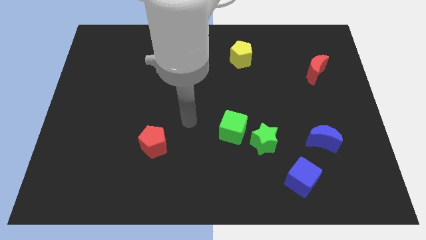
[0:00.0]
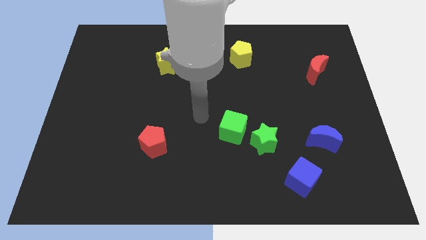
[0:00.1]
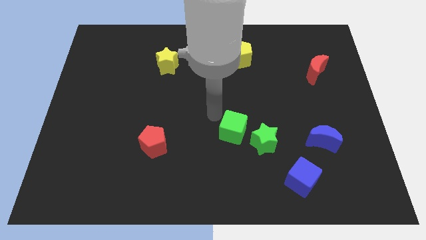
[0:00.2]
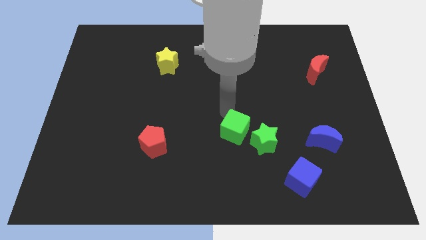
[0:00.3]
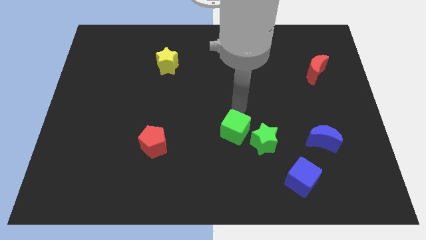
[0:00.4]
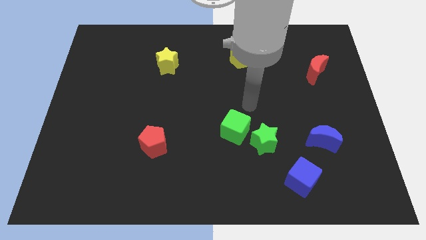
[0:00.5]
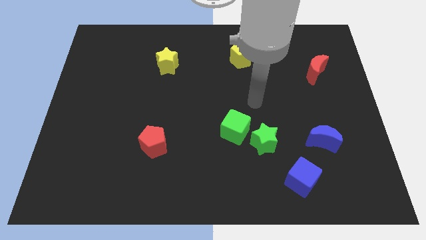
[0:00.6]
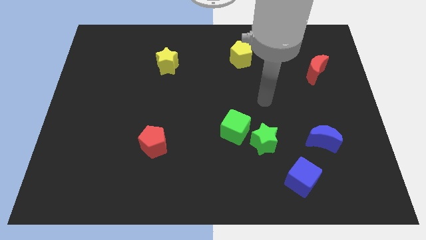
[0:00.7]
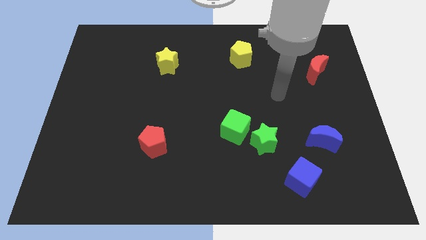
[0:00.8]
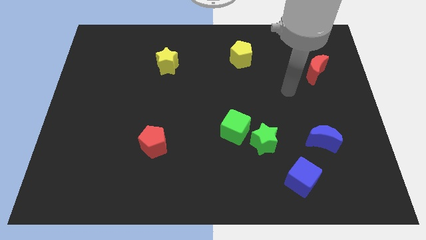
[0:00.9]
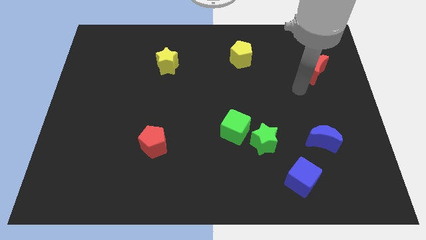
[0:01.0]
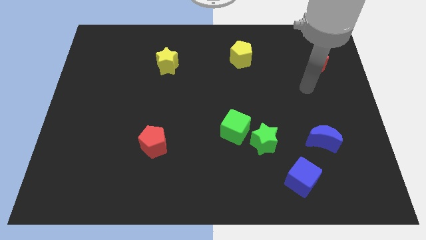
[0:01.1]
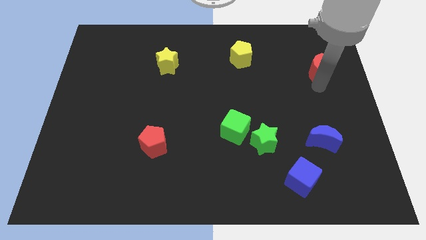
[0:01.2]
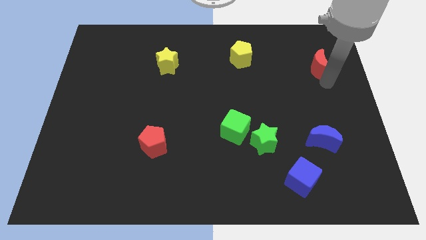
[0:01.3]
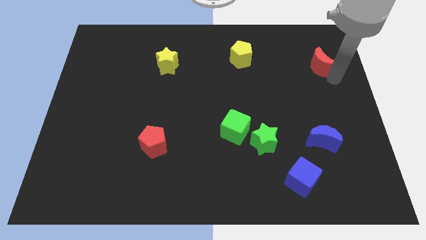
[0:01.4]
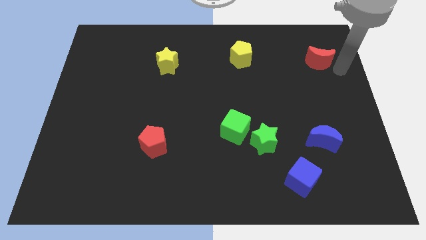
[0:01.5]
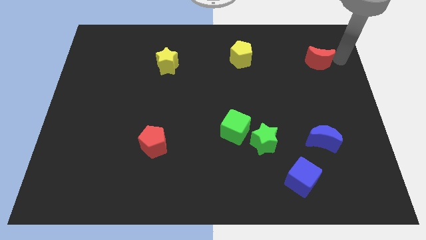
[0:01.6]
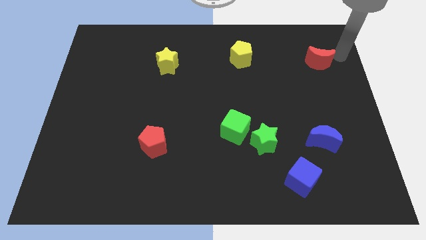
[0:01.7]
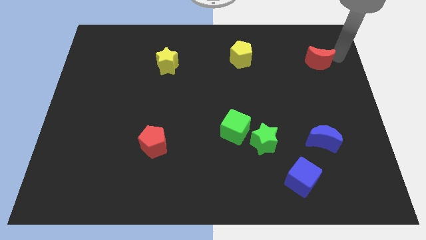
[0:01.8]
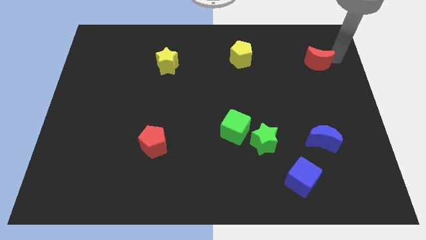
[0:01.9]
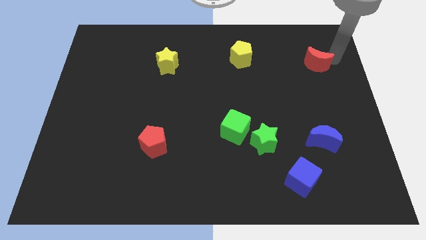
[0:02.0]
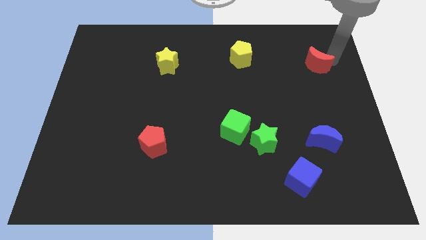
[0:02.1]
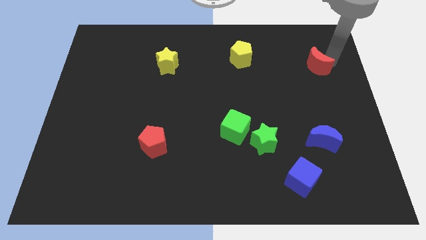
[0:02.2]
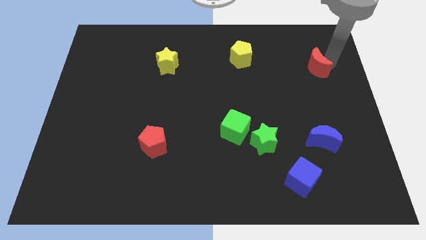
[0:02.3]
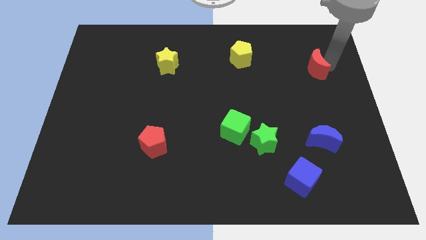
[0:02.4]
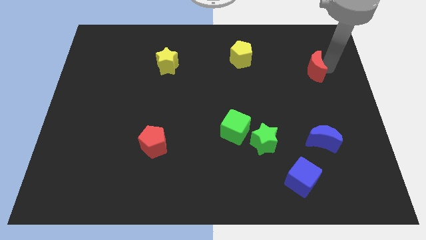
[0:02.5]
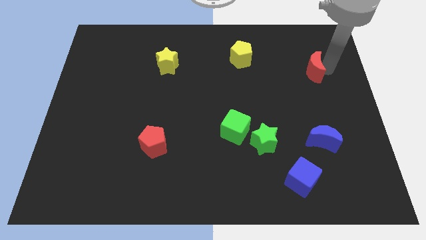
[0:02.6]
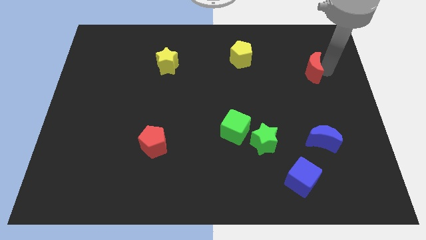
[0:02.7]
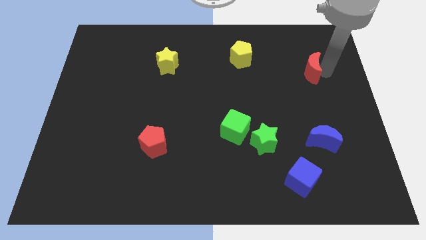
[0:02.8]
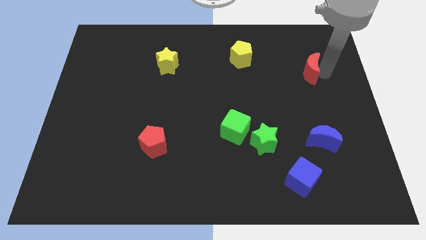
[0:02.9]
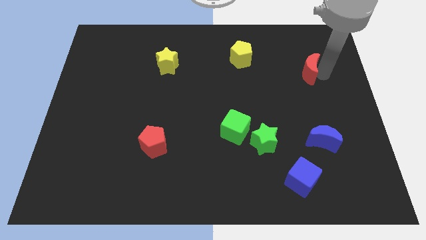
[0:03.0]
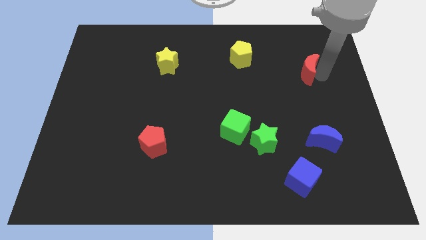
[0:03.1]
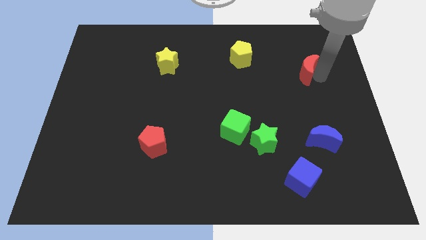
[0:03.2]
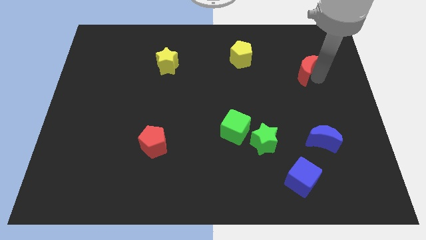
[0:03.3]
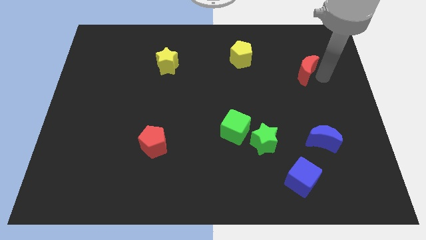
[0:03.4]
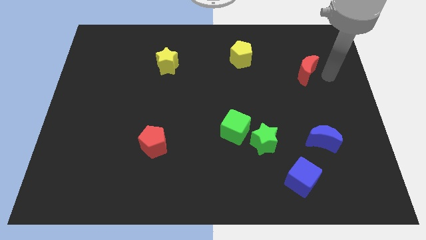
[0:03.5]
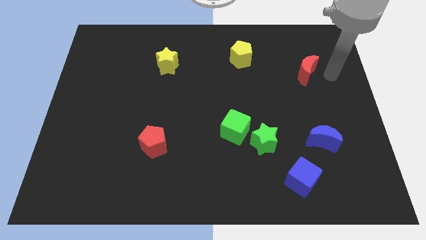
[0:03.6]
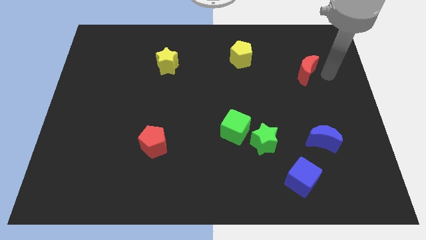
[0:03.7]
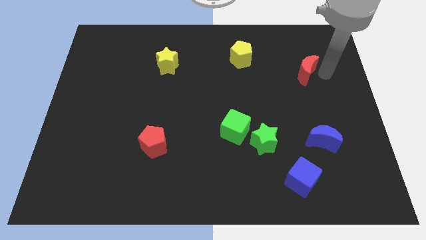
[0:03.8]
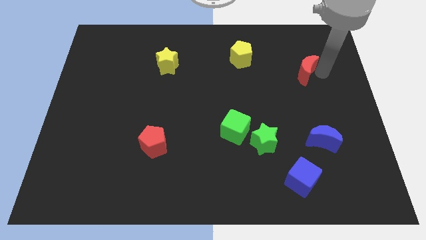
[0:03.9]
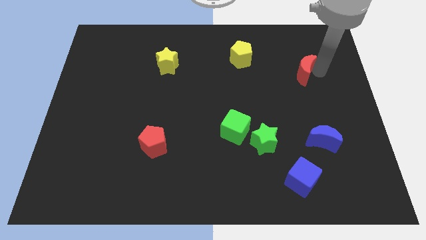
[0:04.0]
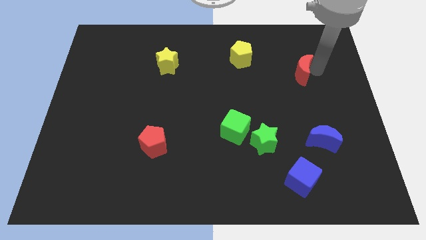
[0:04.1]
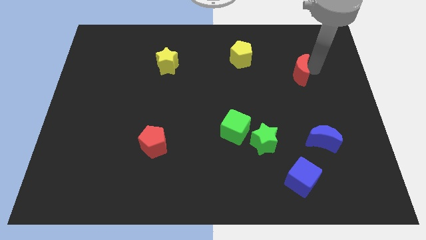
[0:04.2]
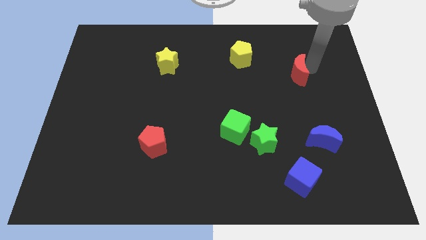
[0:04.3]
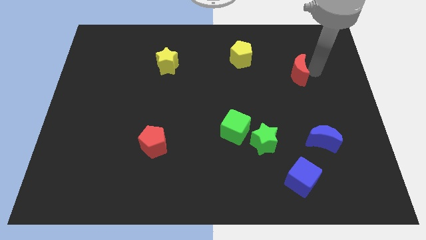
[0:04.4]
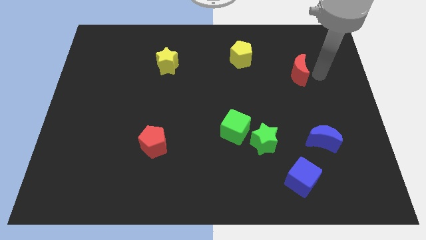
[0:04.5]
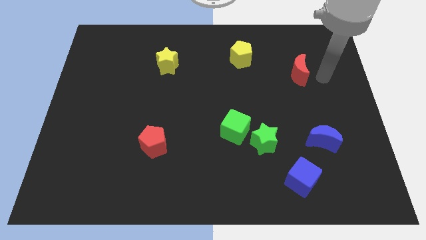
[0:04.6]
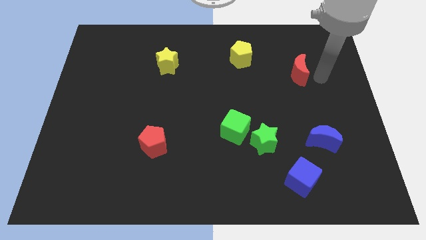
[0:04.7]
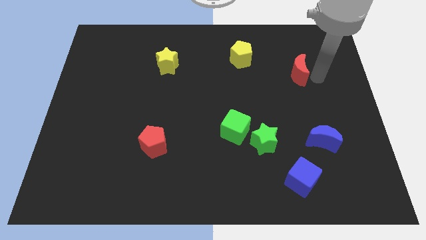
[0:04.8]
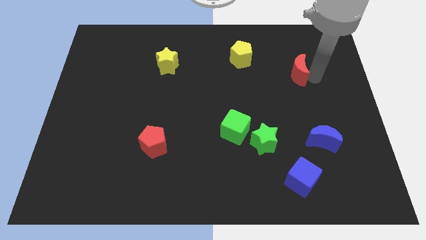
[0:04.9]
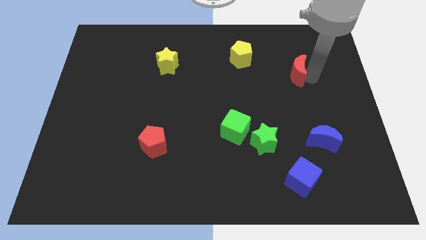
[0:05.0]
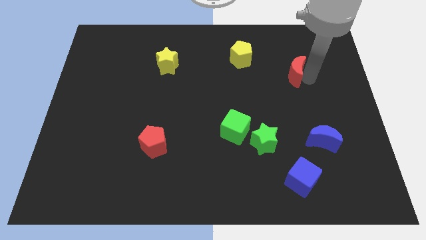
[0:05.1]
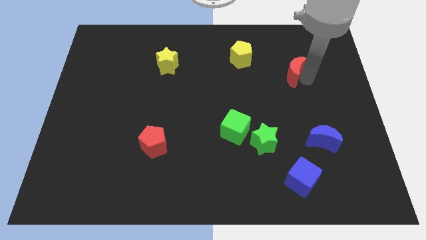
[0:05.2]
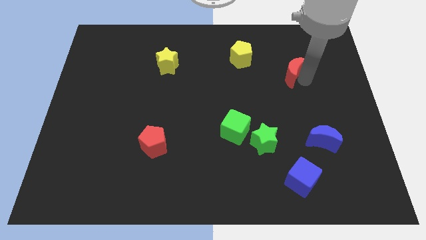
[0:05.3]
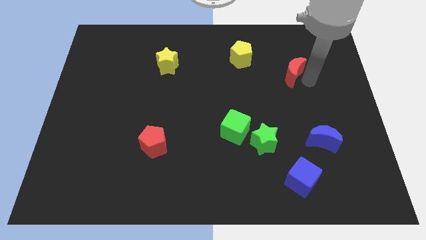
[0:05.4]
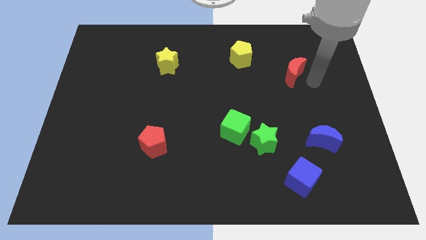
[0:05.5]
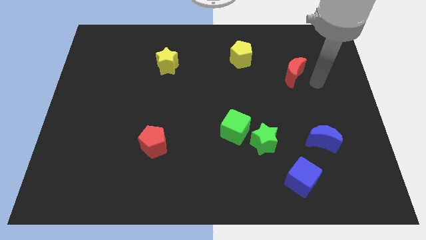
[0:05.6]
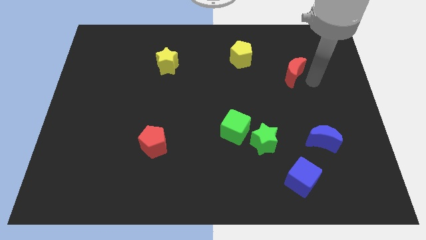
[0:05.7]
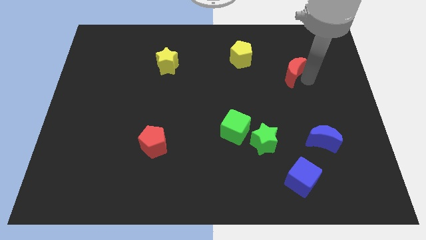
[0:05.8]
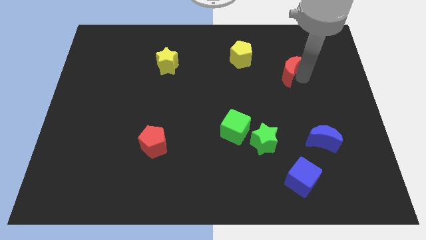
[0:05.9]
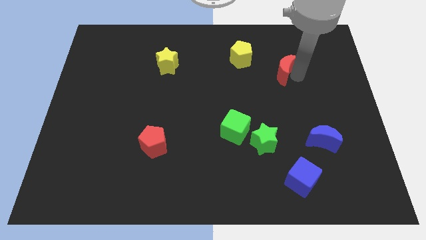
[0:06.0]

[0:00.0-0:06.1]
slide the red moon a little bit left

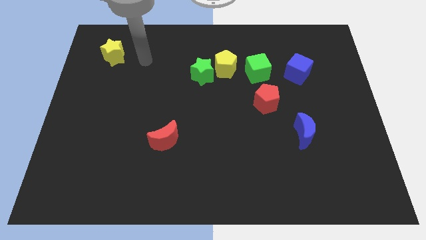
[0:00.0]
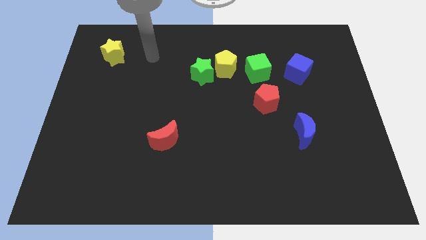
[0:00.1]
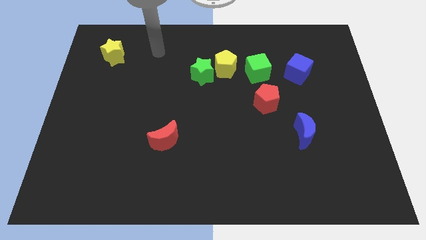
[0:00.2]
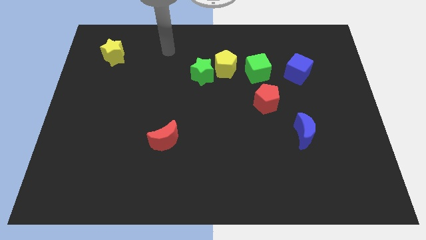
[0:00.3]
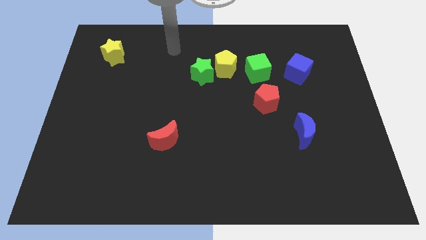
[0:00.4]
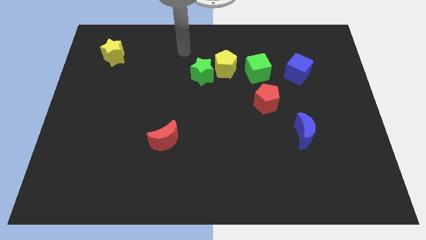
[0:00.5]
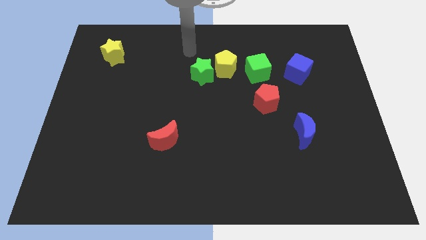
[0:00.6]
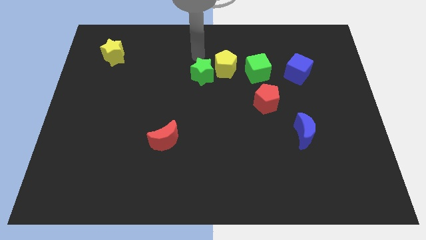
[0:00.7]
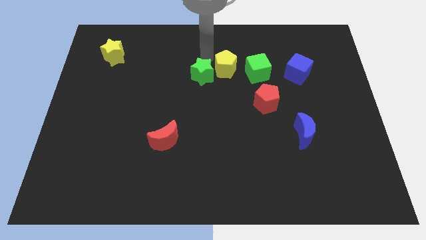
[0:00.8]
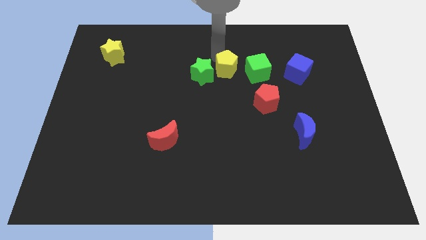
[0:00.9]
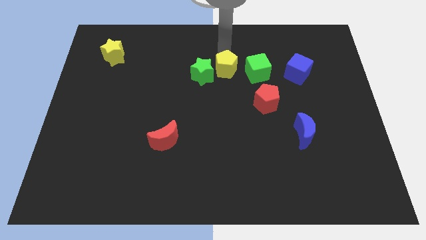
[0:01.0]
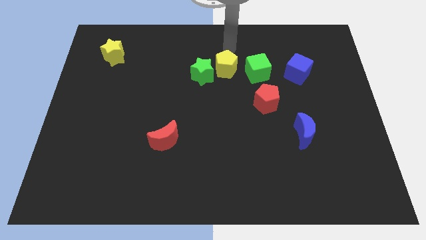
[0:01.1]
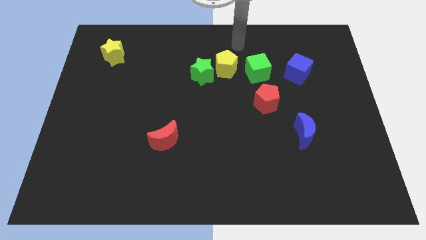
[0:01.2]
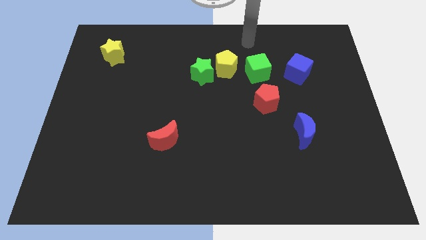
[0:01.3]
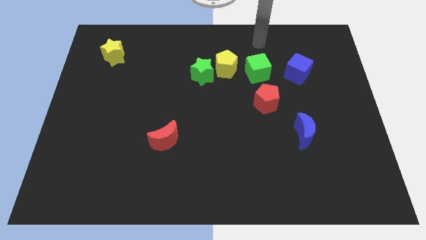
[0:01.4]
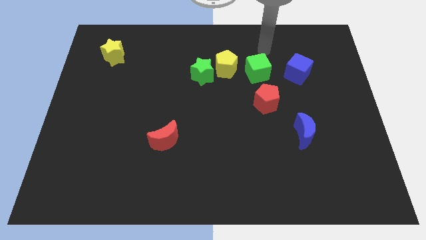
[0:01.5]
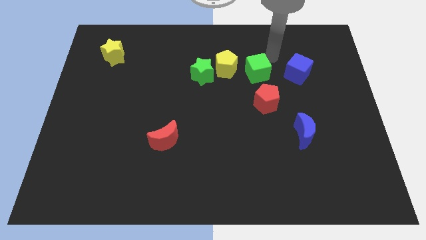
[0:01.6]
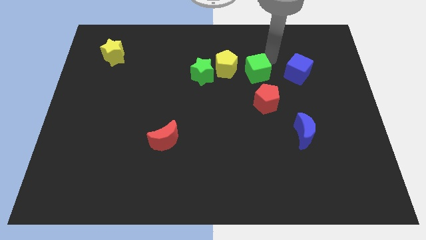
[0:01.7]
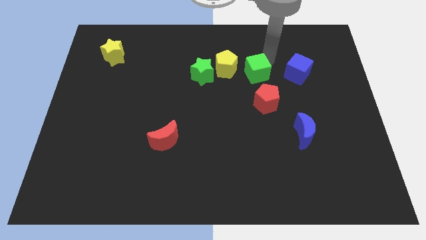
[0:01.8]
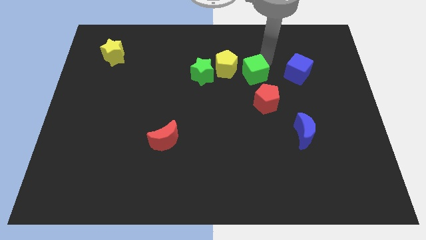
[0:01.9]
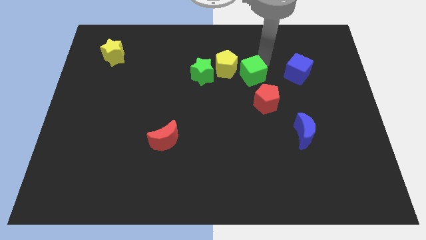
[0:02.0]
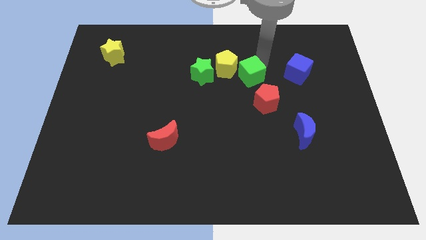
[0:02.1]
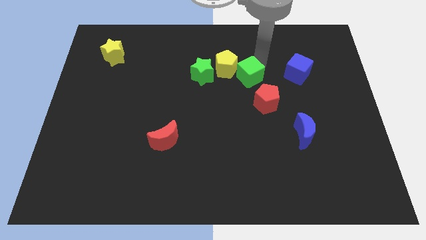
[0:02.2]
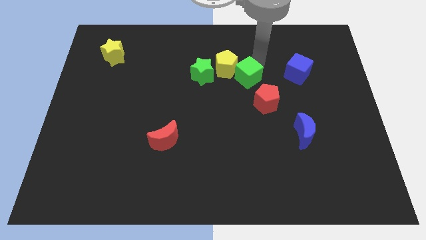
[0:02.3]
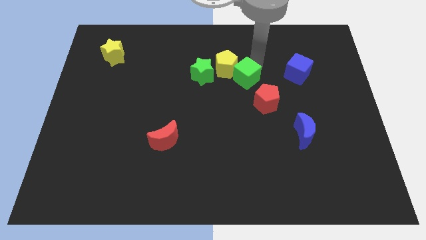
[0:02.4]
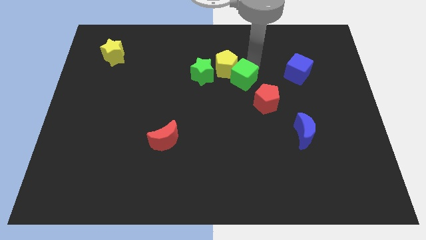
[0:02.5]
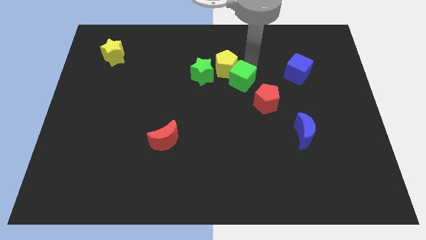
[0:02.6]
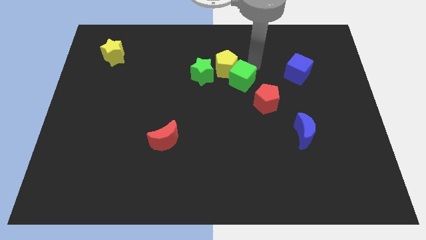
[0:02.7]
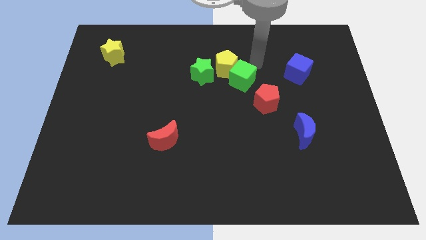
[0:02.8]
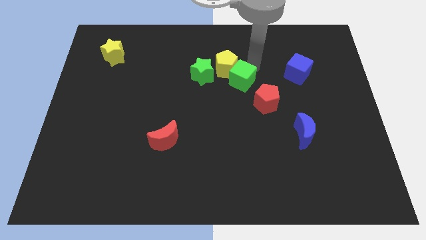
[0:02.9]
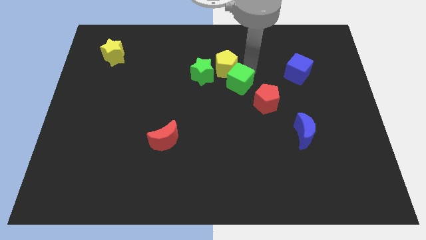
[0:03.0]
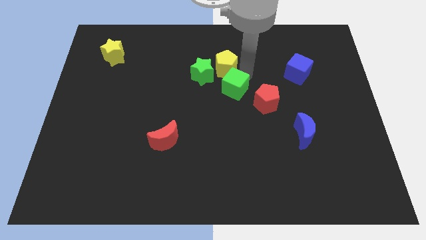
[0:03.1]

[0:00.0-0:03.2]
slide the green cube downwards and to the left a bit
